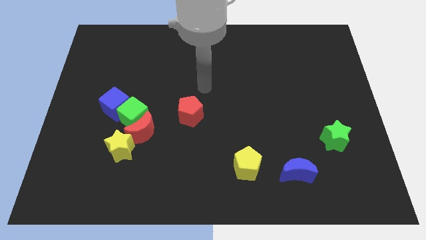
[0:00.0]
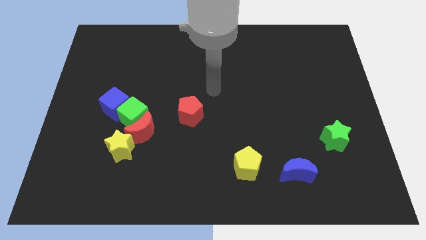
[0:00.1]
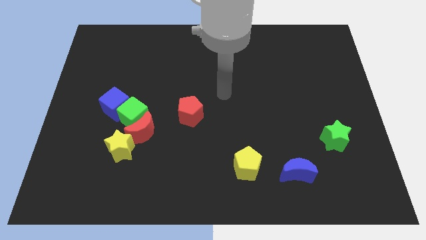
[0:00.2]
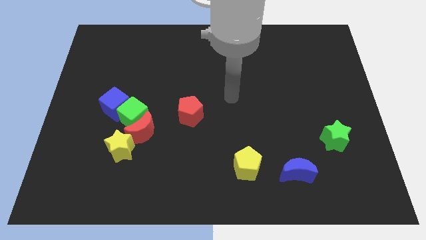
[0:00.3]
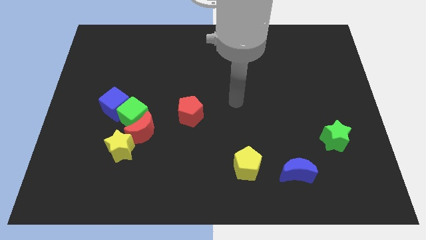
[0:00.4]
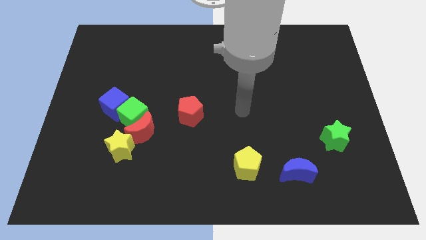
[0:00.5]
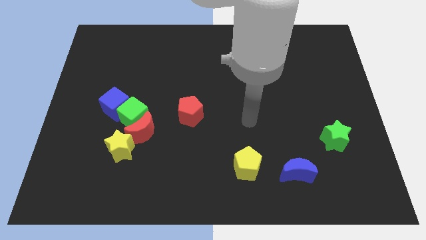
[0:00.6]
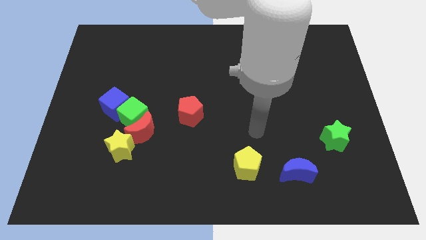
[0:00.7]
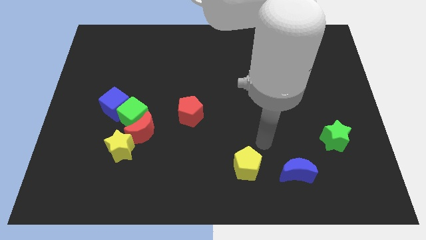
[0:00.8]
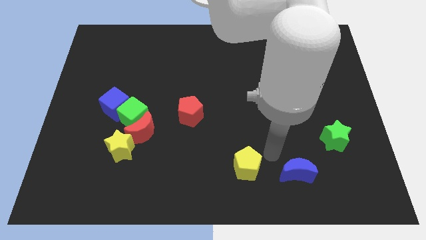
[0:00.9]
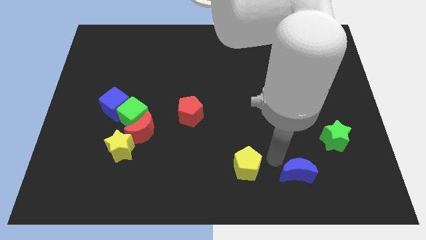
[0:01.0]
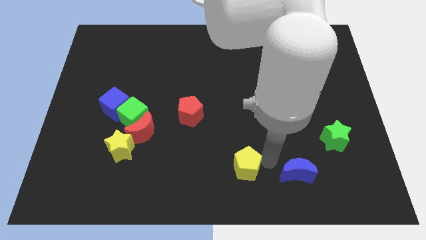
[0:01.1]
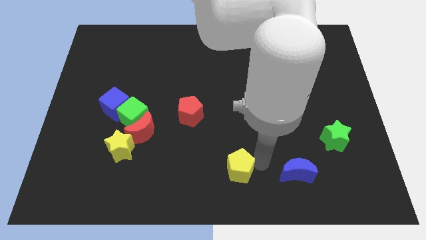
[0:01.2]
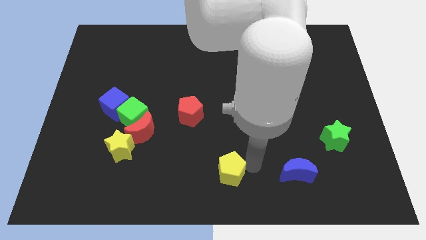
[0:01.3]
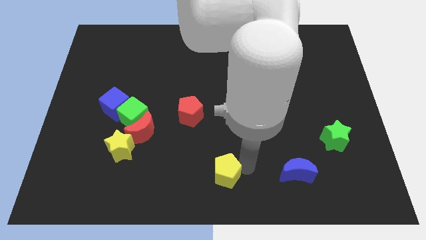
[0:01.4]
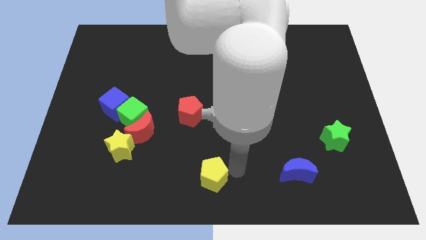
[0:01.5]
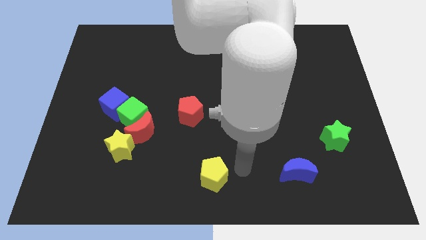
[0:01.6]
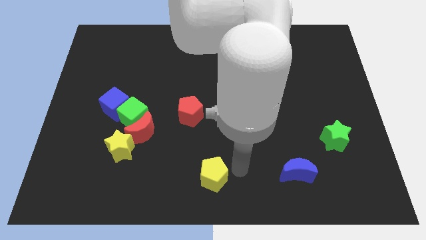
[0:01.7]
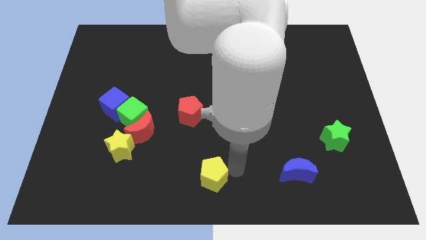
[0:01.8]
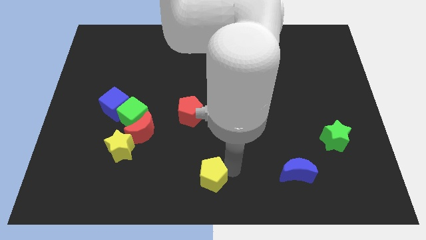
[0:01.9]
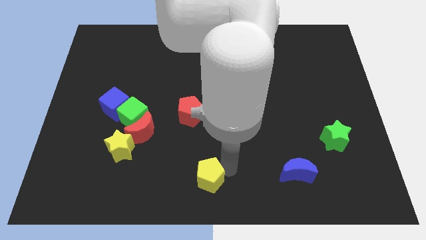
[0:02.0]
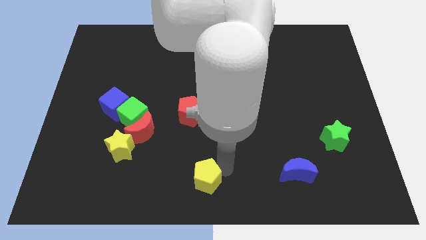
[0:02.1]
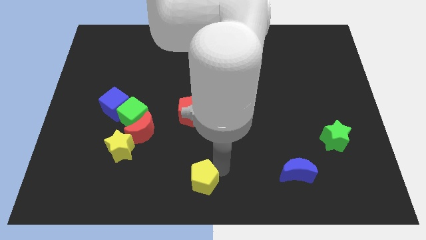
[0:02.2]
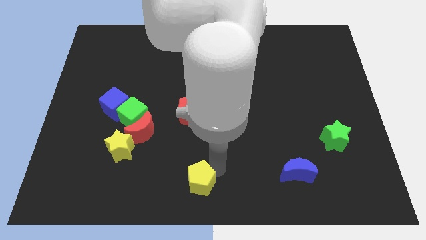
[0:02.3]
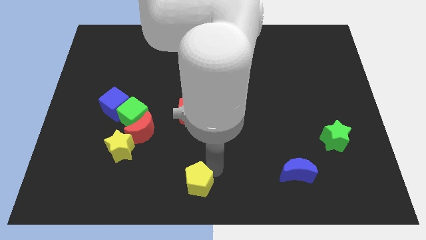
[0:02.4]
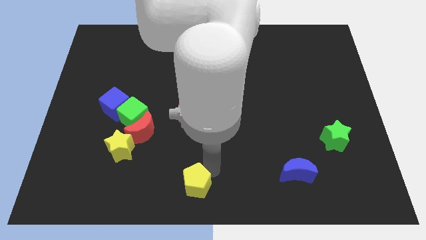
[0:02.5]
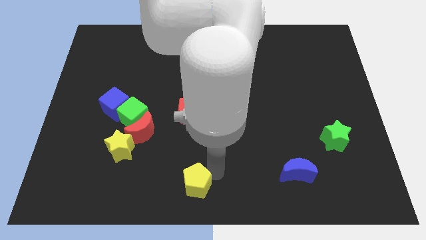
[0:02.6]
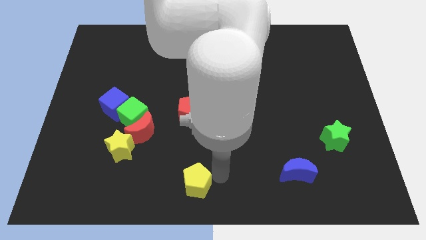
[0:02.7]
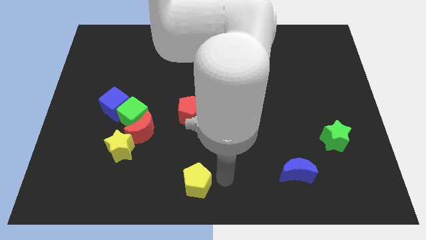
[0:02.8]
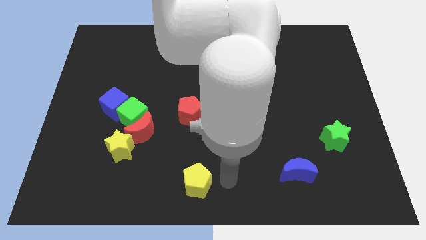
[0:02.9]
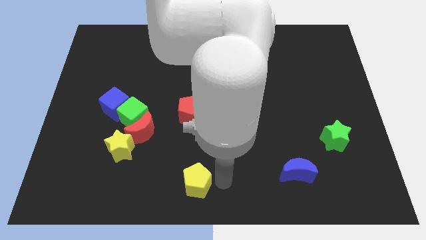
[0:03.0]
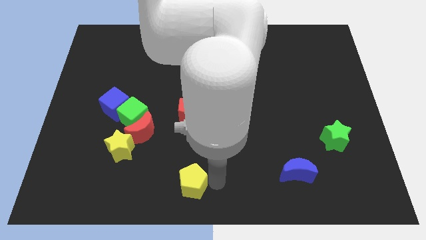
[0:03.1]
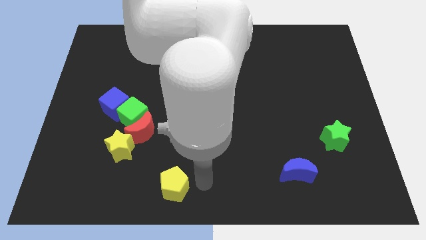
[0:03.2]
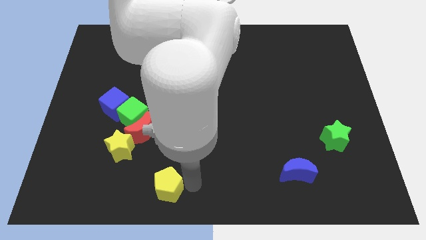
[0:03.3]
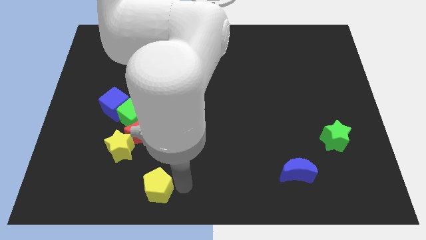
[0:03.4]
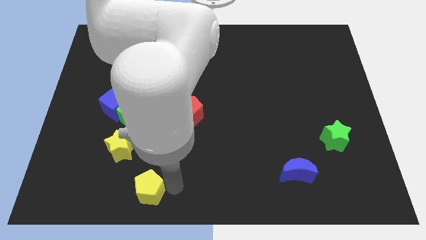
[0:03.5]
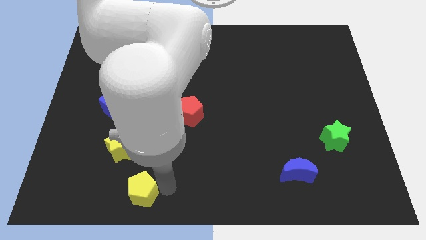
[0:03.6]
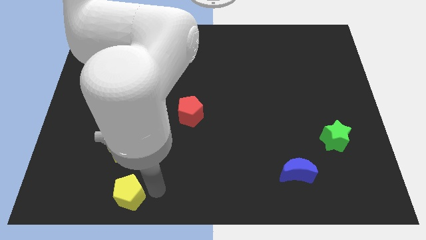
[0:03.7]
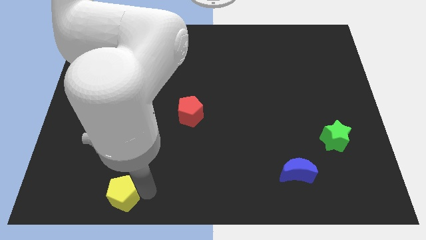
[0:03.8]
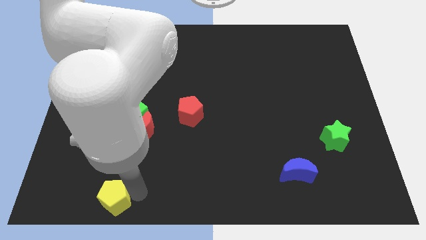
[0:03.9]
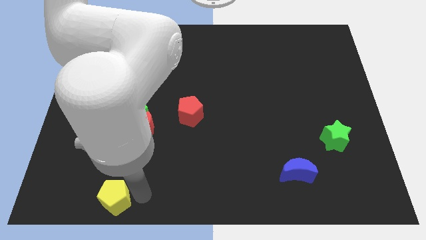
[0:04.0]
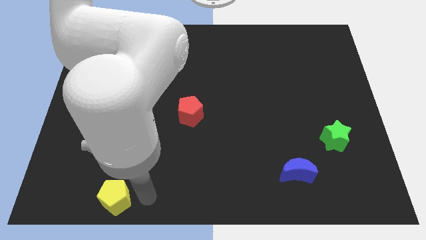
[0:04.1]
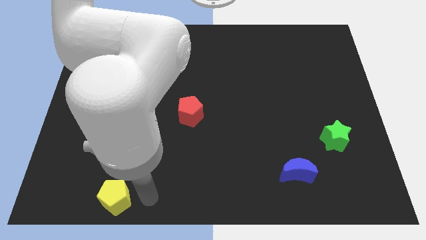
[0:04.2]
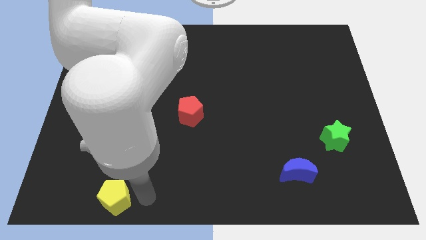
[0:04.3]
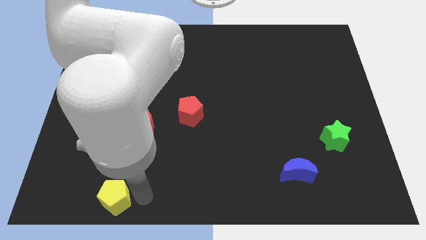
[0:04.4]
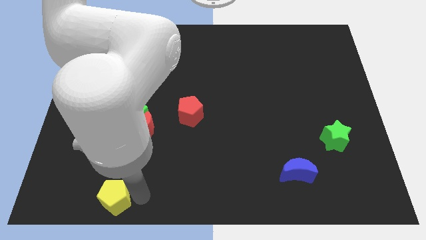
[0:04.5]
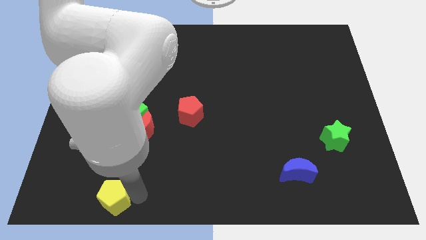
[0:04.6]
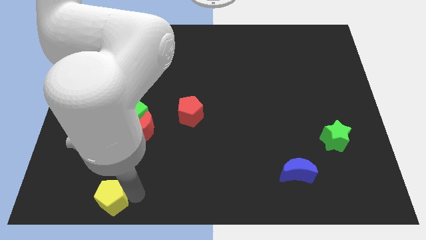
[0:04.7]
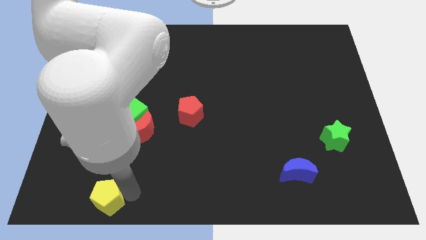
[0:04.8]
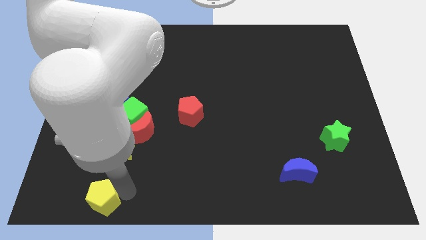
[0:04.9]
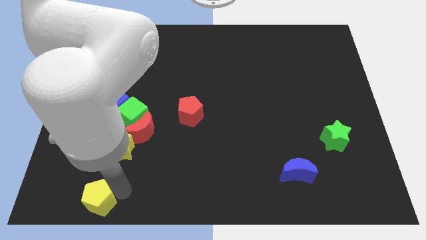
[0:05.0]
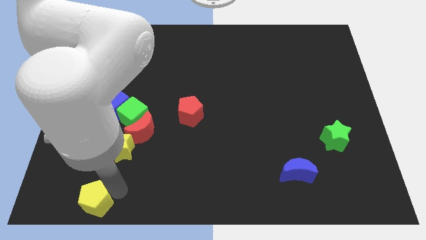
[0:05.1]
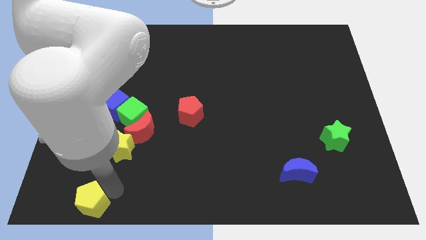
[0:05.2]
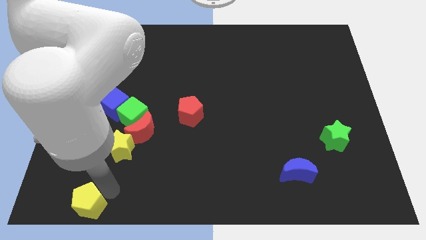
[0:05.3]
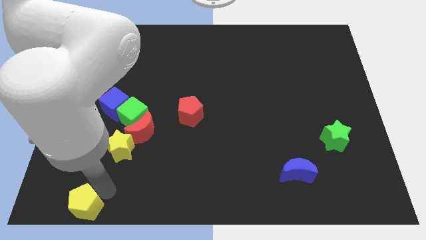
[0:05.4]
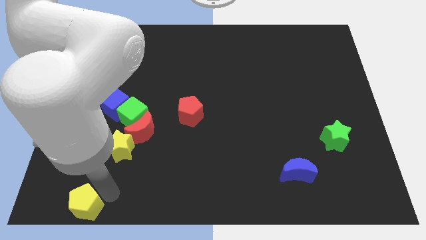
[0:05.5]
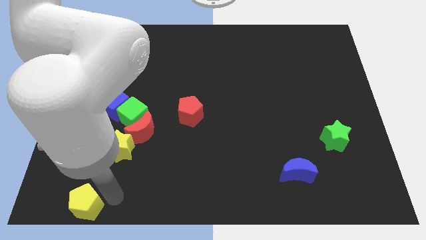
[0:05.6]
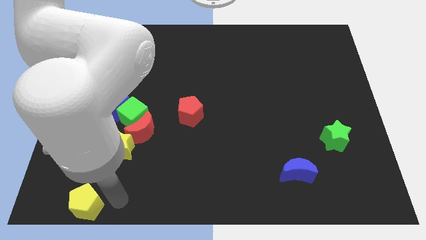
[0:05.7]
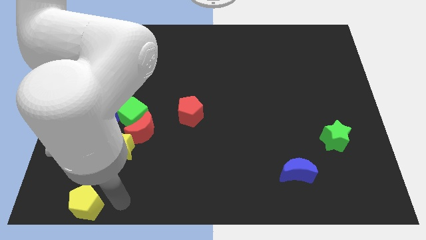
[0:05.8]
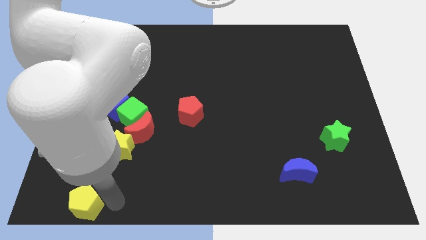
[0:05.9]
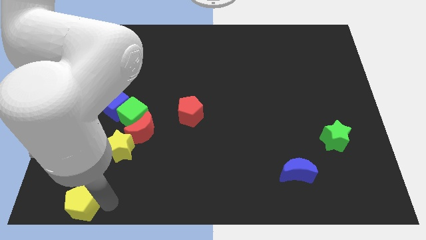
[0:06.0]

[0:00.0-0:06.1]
move the yellow pentagon to the bottom left
